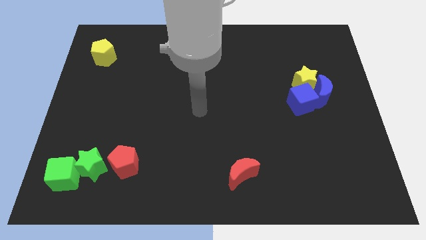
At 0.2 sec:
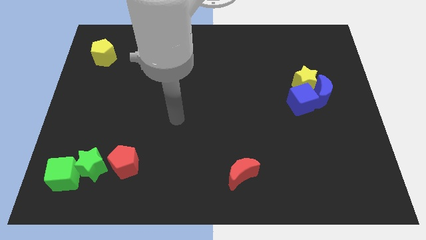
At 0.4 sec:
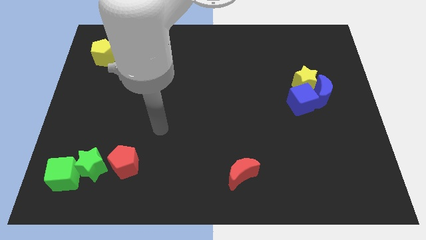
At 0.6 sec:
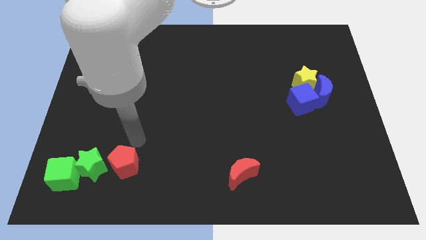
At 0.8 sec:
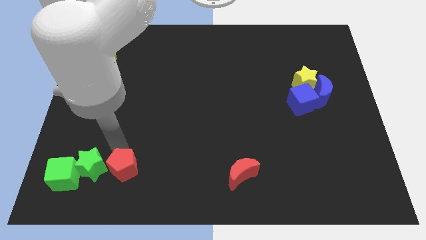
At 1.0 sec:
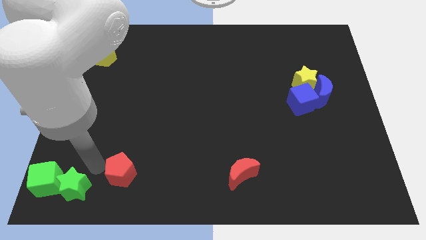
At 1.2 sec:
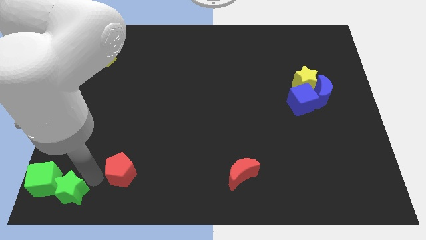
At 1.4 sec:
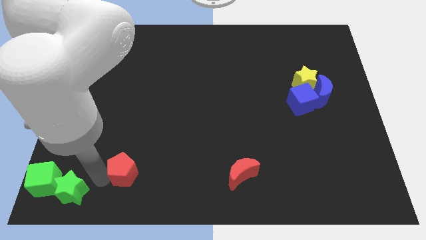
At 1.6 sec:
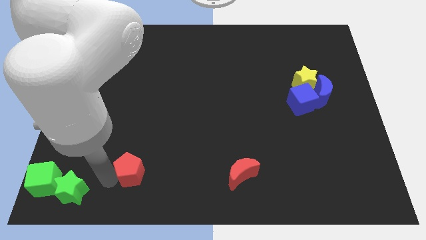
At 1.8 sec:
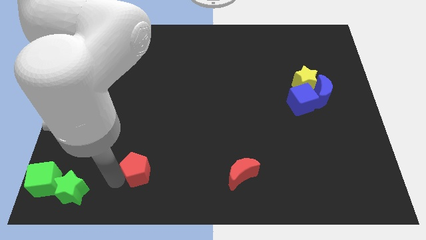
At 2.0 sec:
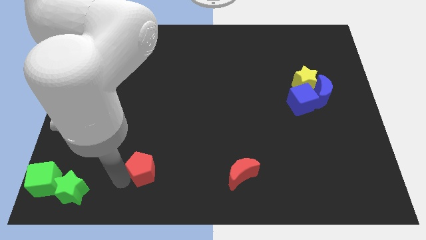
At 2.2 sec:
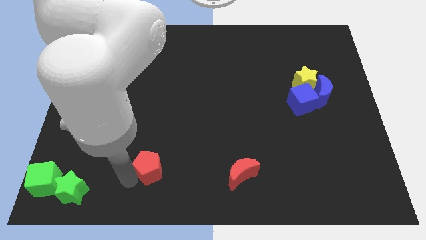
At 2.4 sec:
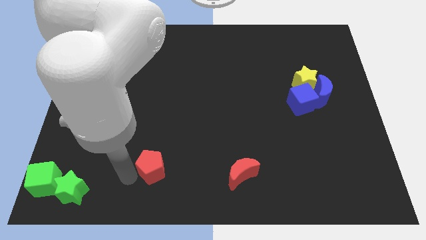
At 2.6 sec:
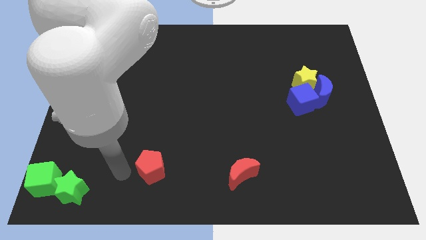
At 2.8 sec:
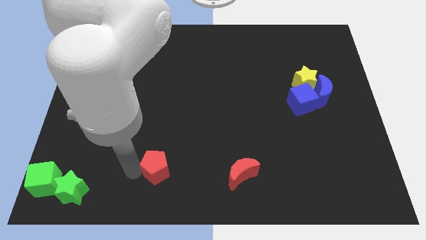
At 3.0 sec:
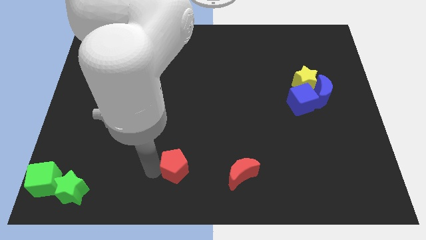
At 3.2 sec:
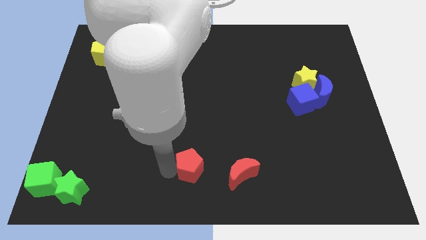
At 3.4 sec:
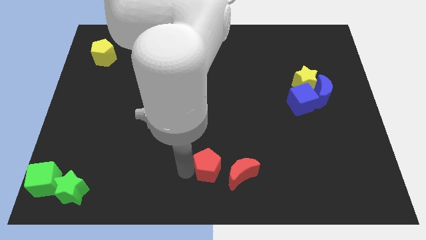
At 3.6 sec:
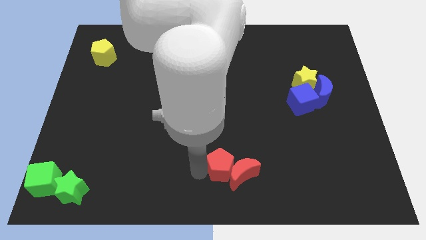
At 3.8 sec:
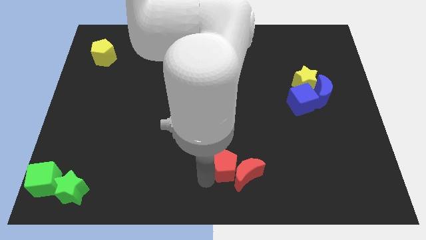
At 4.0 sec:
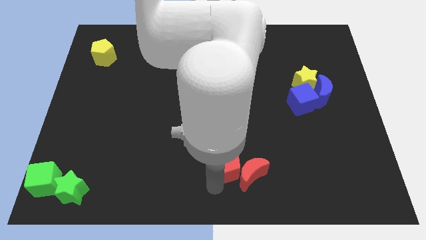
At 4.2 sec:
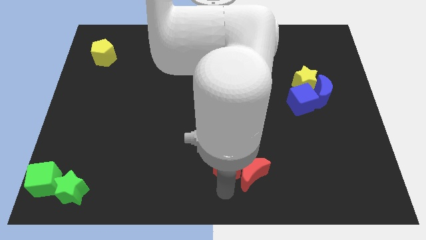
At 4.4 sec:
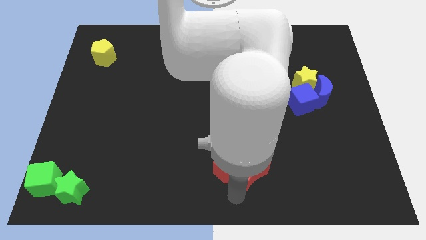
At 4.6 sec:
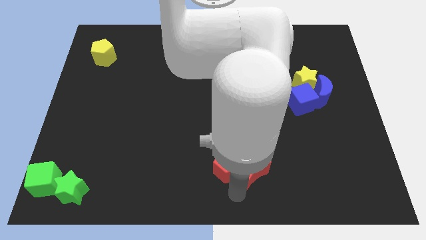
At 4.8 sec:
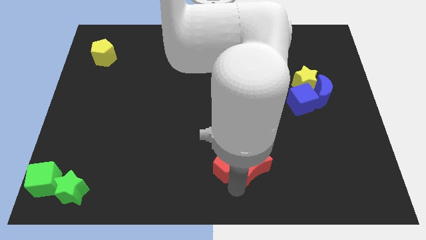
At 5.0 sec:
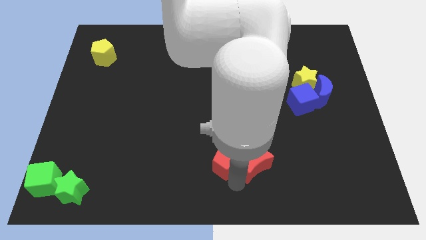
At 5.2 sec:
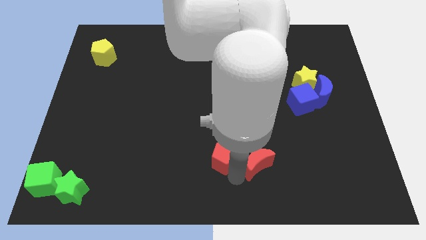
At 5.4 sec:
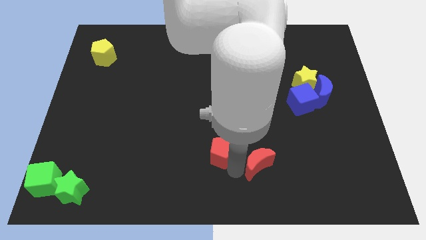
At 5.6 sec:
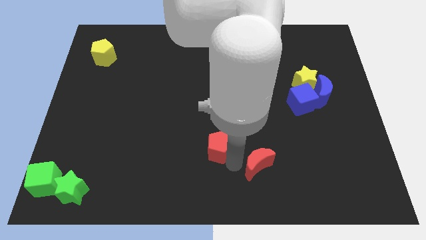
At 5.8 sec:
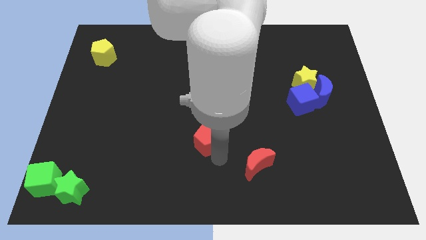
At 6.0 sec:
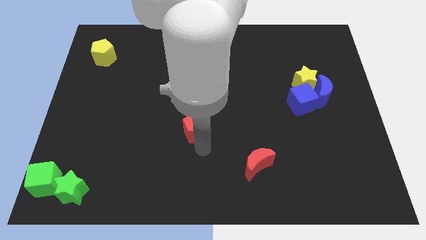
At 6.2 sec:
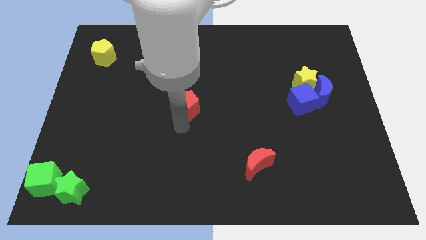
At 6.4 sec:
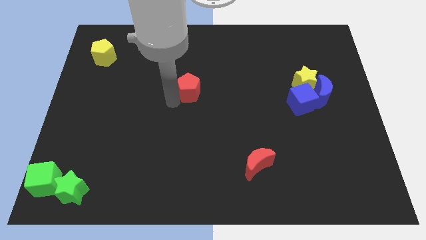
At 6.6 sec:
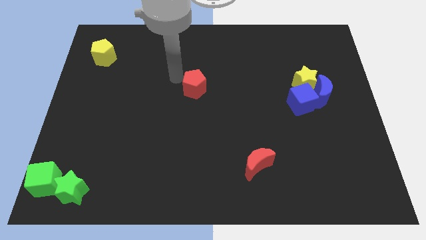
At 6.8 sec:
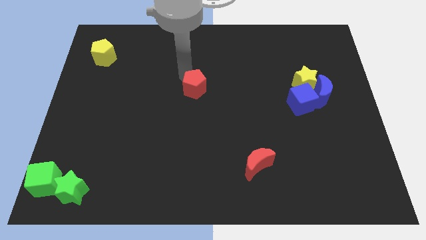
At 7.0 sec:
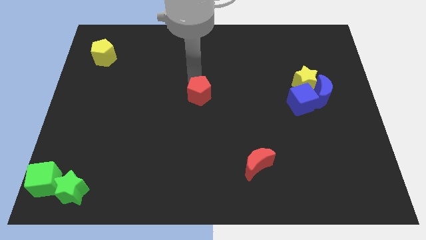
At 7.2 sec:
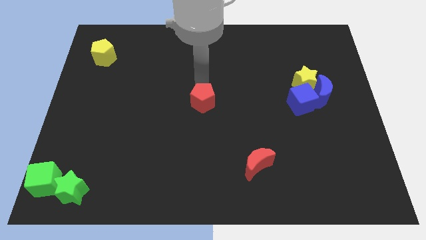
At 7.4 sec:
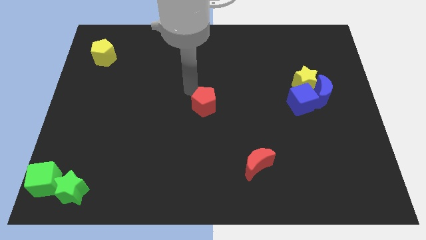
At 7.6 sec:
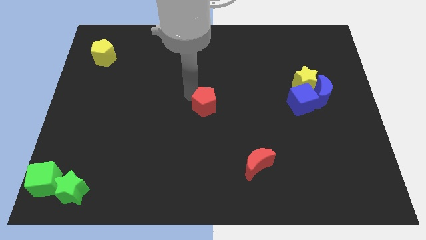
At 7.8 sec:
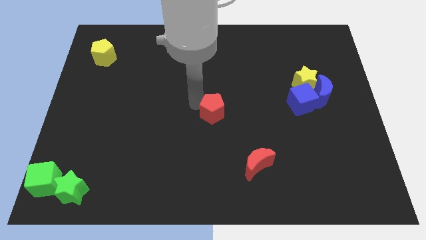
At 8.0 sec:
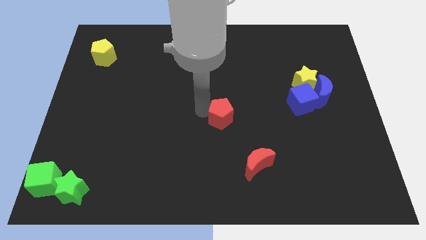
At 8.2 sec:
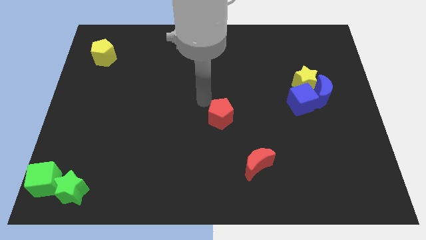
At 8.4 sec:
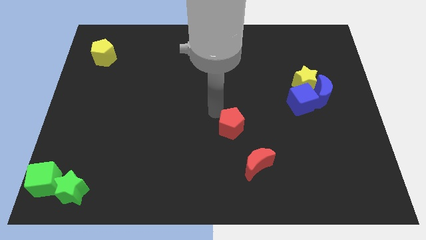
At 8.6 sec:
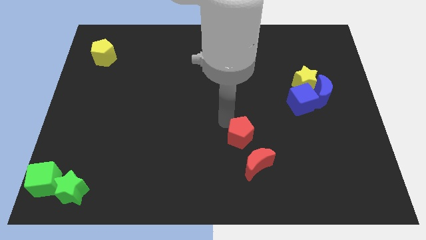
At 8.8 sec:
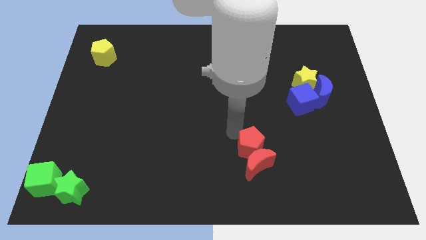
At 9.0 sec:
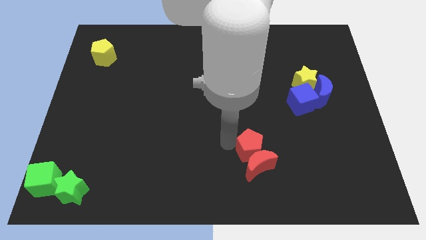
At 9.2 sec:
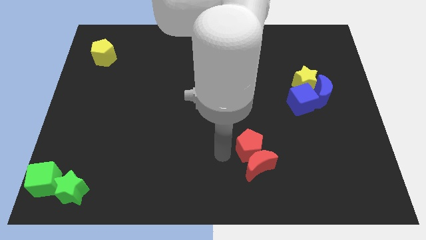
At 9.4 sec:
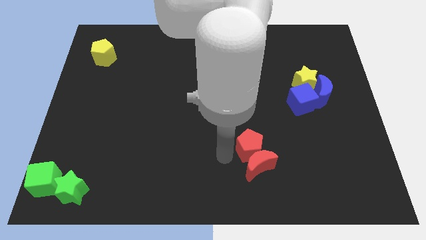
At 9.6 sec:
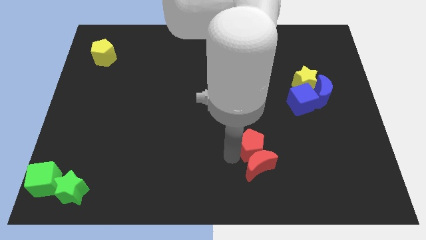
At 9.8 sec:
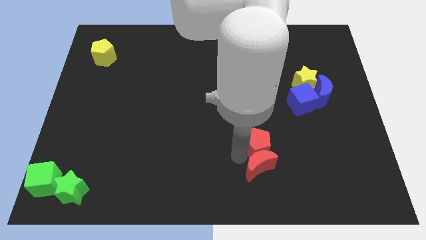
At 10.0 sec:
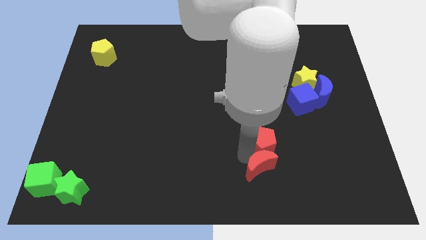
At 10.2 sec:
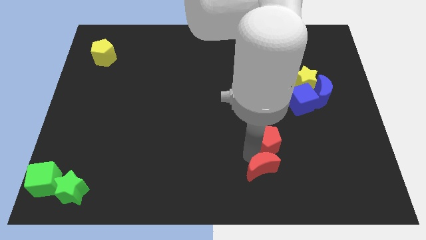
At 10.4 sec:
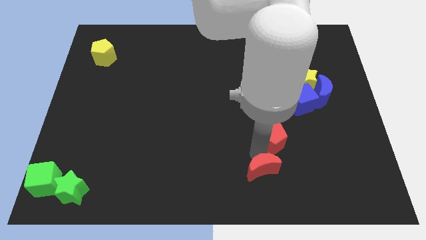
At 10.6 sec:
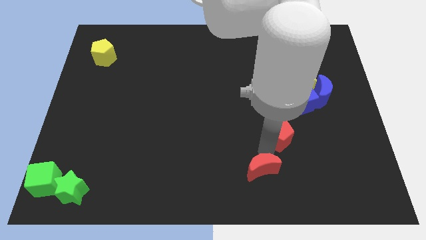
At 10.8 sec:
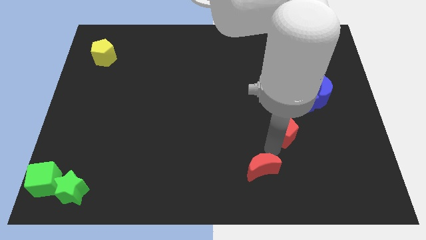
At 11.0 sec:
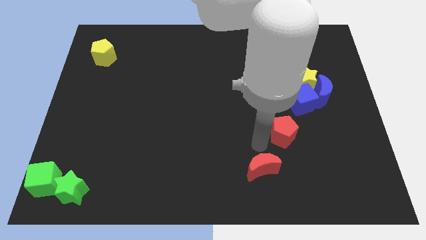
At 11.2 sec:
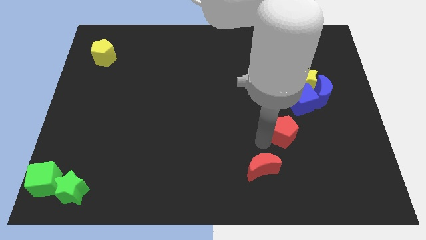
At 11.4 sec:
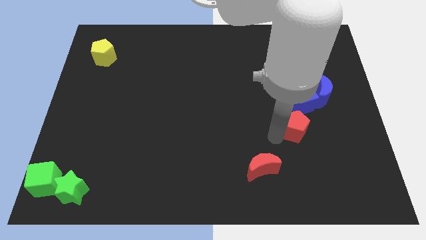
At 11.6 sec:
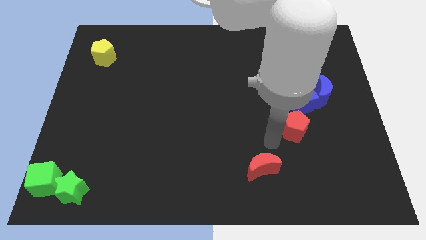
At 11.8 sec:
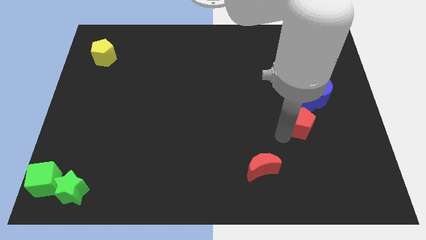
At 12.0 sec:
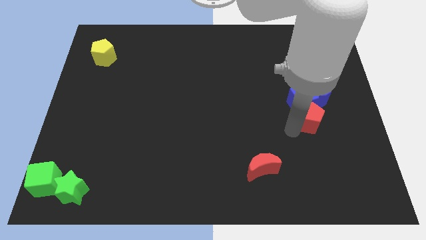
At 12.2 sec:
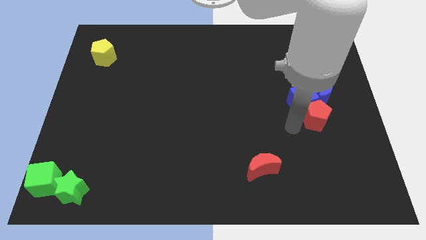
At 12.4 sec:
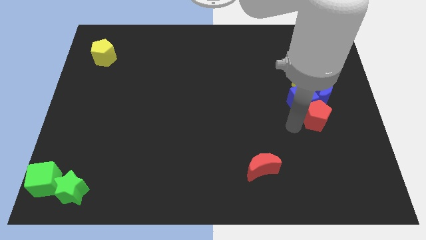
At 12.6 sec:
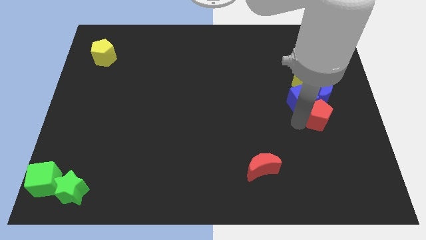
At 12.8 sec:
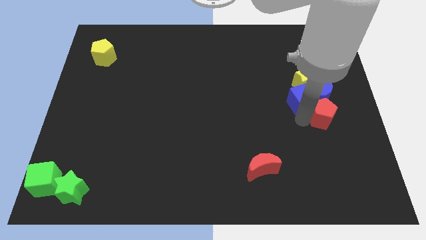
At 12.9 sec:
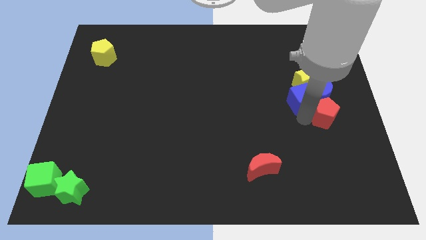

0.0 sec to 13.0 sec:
put the red pentagon to the center right
